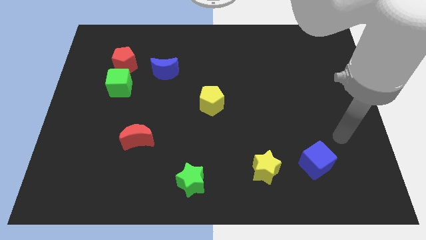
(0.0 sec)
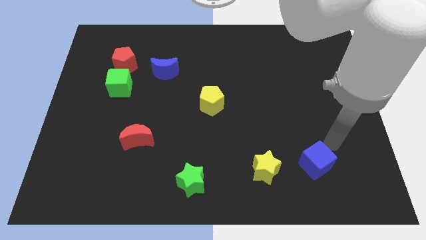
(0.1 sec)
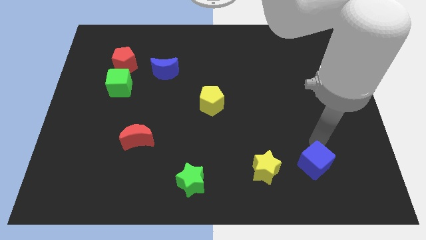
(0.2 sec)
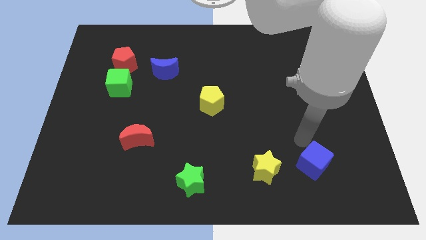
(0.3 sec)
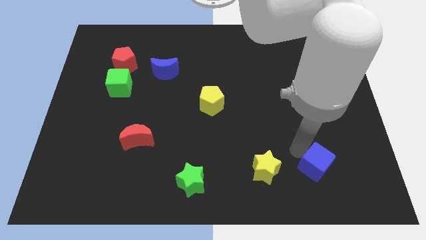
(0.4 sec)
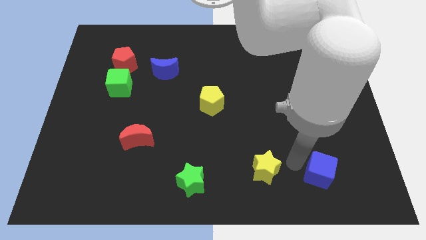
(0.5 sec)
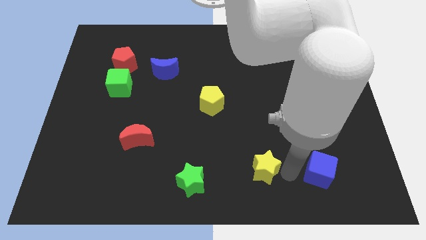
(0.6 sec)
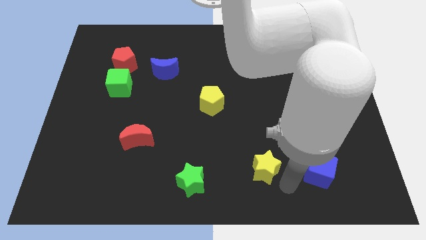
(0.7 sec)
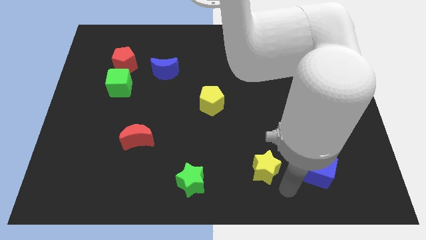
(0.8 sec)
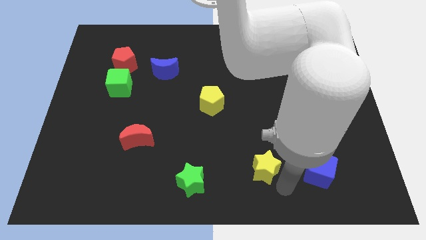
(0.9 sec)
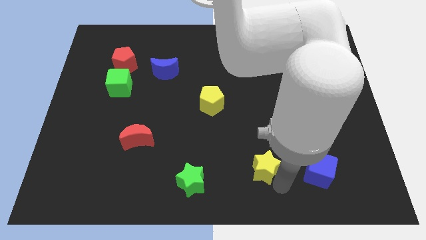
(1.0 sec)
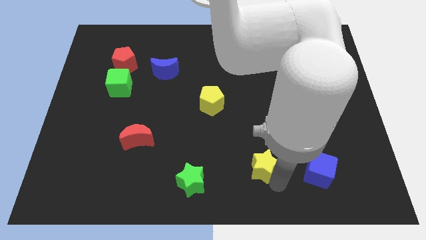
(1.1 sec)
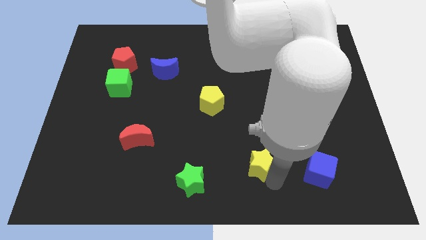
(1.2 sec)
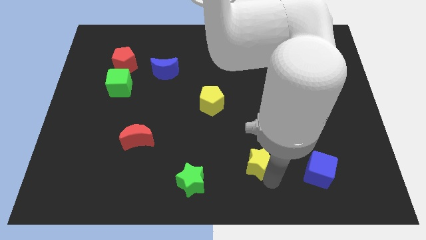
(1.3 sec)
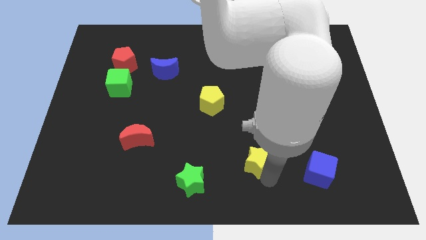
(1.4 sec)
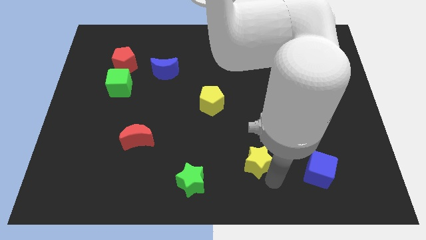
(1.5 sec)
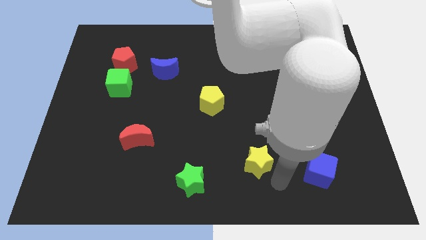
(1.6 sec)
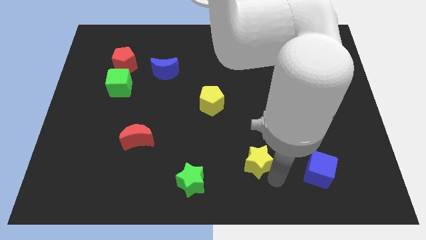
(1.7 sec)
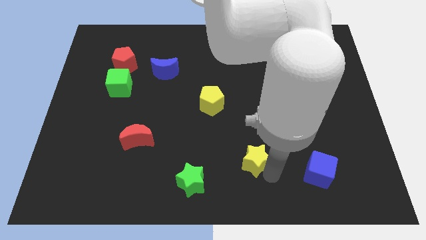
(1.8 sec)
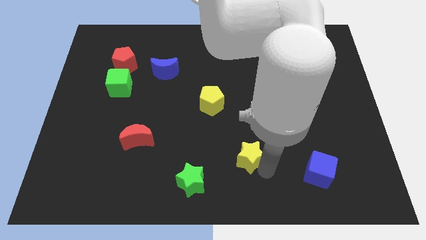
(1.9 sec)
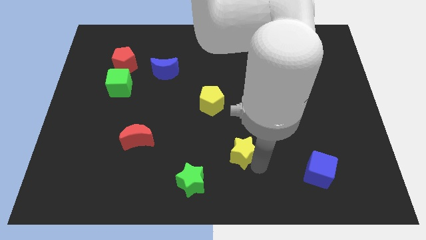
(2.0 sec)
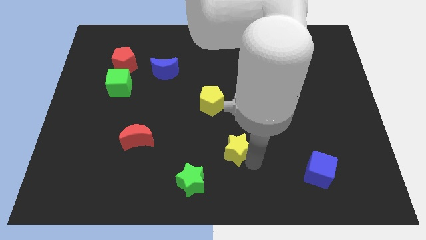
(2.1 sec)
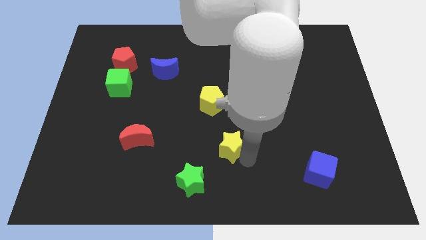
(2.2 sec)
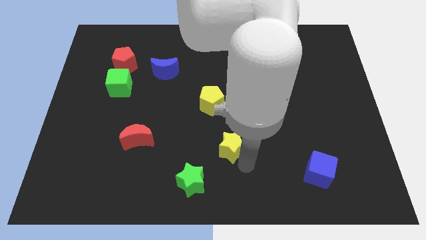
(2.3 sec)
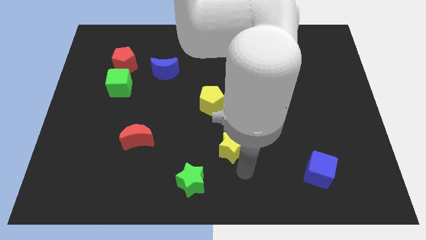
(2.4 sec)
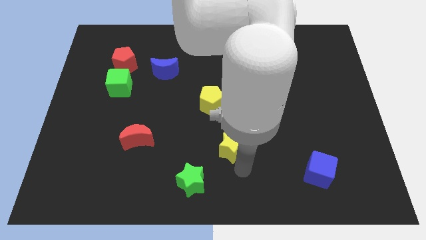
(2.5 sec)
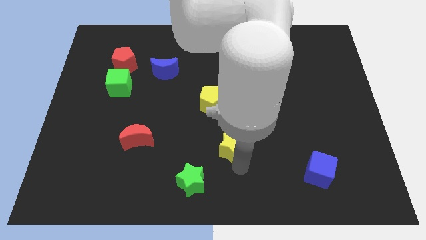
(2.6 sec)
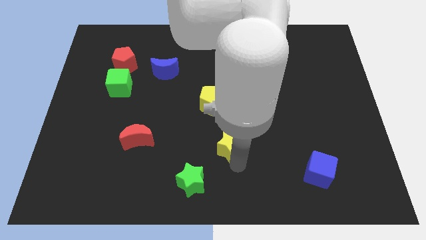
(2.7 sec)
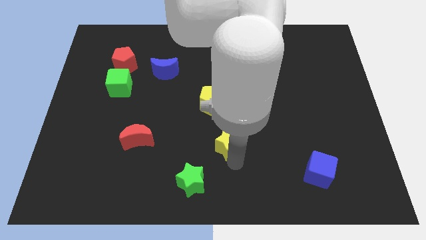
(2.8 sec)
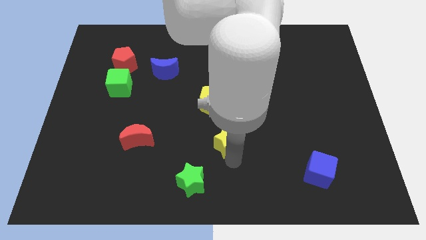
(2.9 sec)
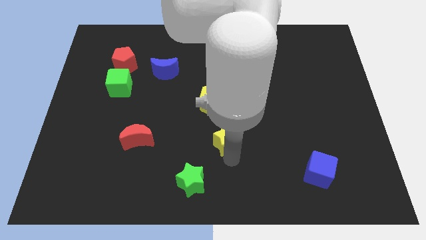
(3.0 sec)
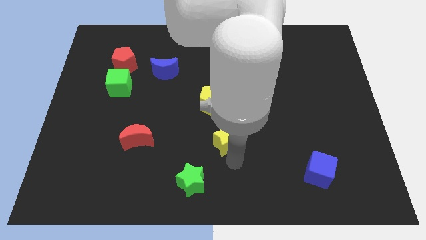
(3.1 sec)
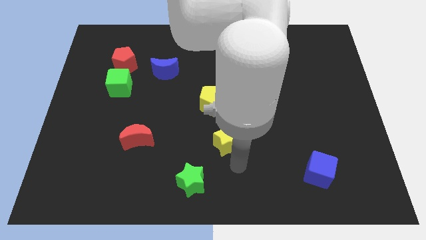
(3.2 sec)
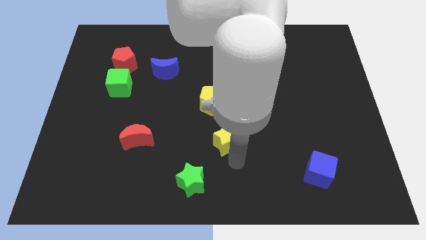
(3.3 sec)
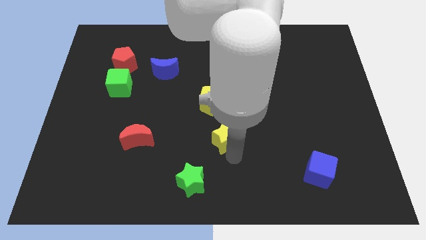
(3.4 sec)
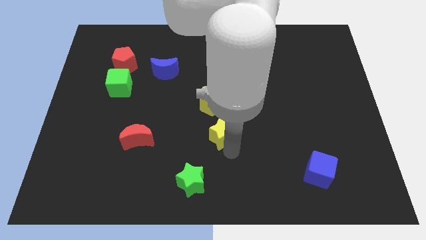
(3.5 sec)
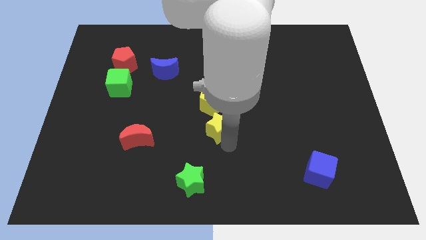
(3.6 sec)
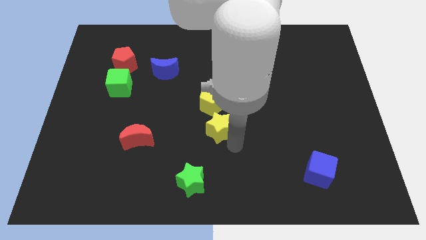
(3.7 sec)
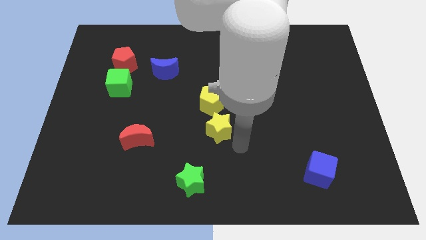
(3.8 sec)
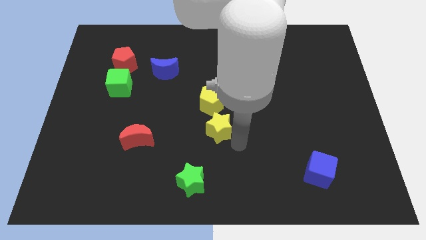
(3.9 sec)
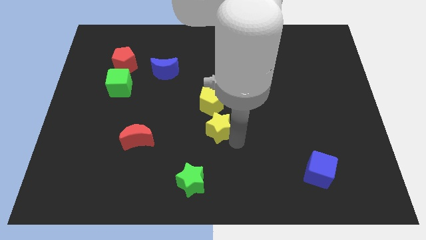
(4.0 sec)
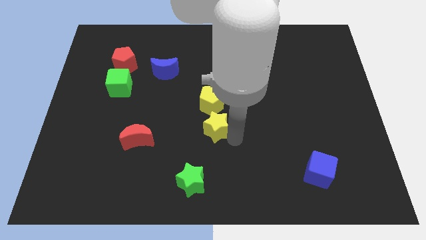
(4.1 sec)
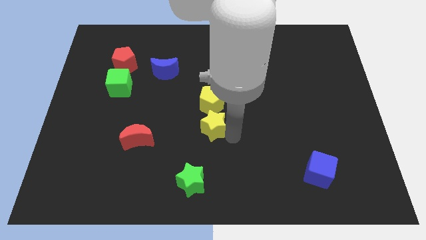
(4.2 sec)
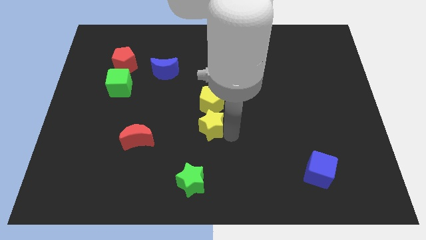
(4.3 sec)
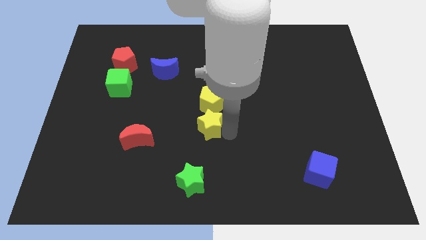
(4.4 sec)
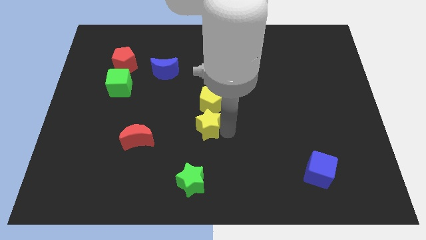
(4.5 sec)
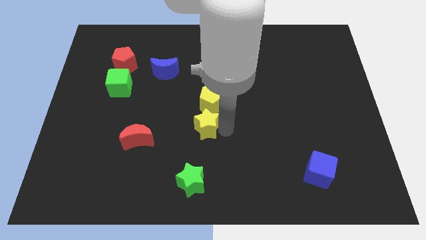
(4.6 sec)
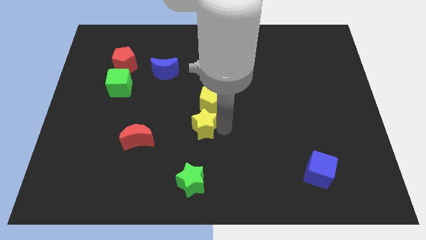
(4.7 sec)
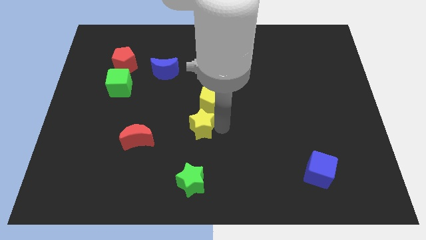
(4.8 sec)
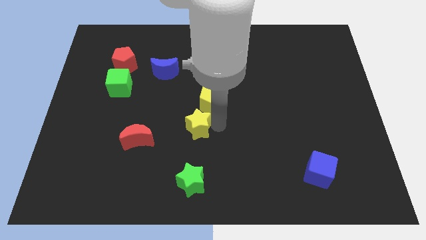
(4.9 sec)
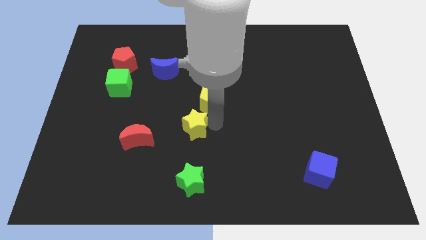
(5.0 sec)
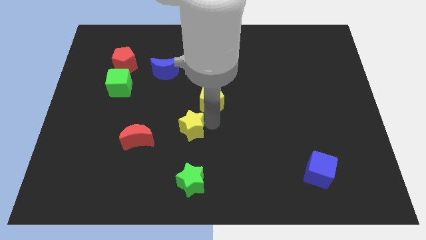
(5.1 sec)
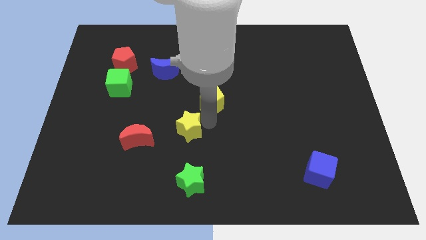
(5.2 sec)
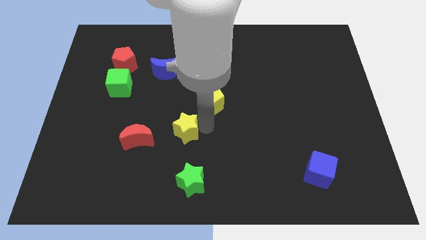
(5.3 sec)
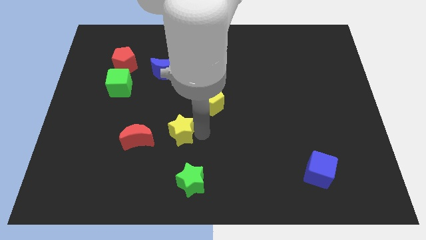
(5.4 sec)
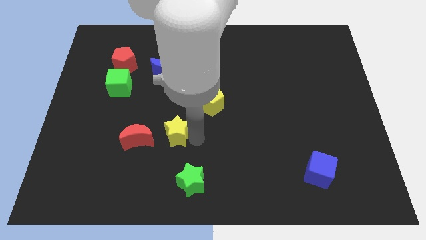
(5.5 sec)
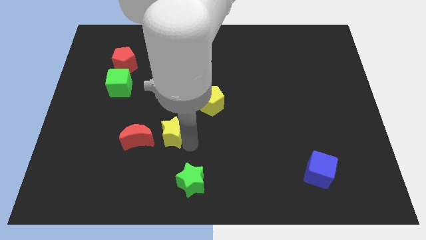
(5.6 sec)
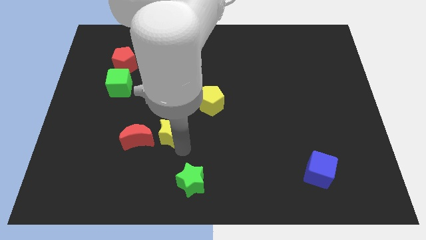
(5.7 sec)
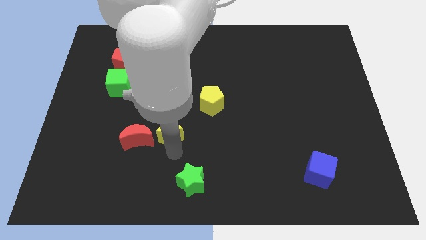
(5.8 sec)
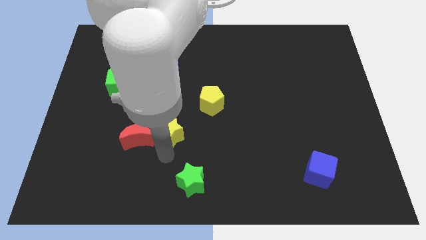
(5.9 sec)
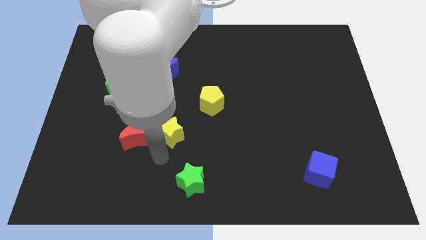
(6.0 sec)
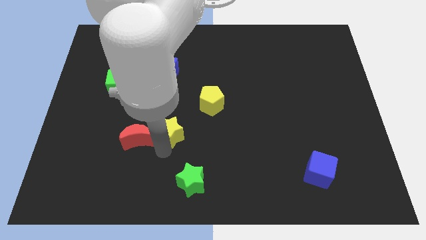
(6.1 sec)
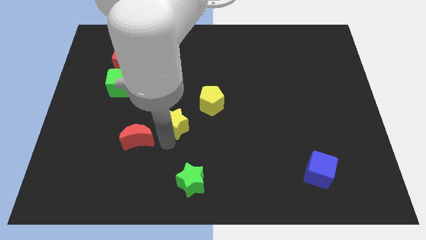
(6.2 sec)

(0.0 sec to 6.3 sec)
push the yellow star upwards and then left

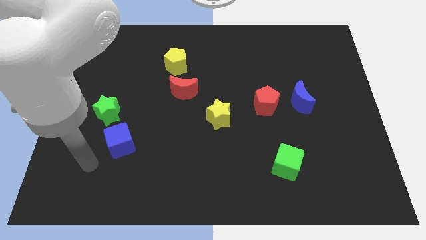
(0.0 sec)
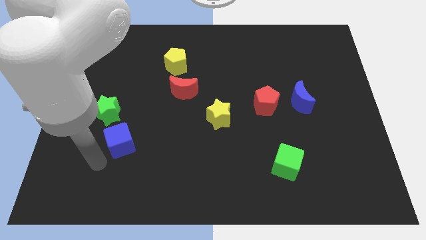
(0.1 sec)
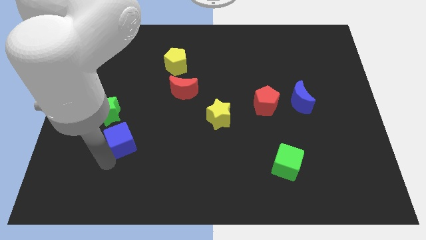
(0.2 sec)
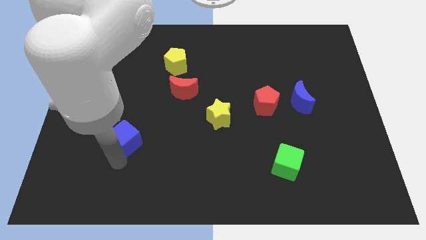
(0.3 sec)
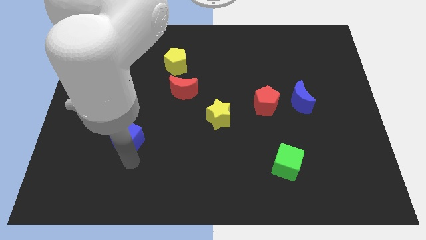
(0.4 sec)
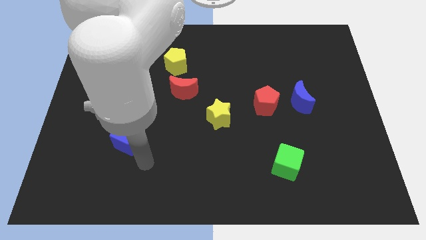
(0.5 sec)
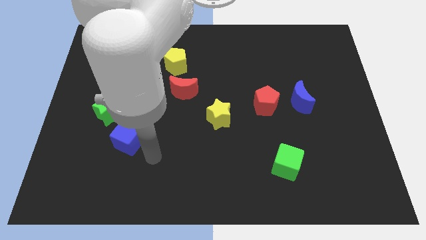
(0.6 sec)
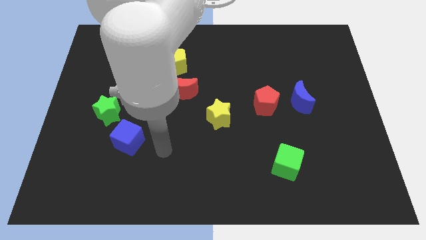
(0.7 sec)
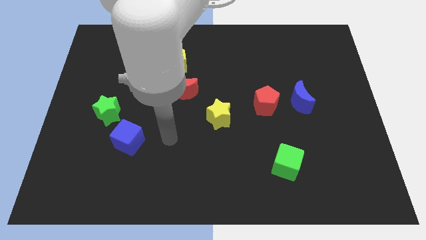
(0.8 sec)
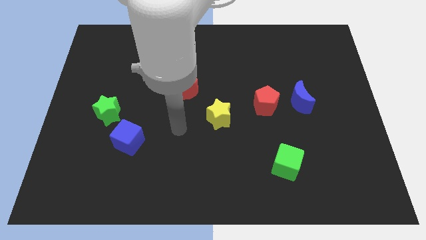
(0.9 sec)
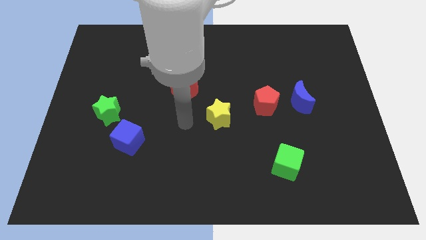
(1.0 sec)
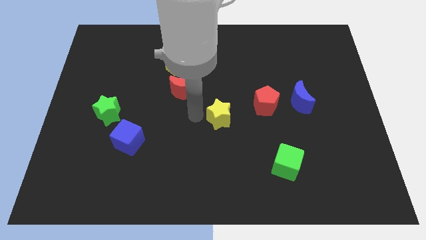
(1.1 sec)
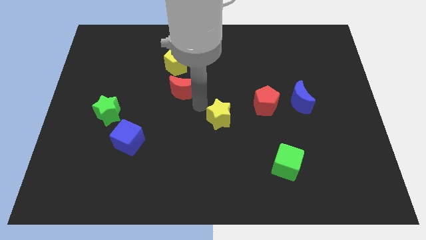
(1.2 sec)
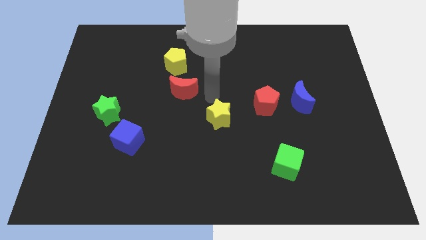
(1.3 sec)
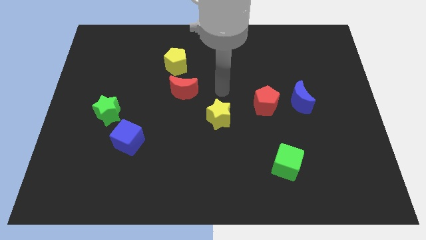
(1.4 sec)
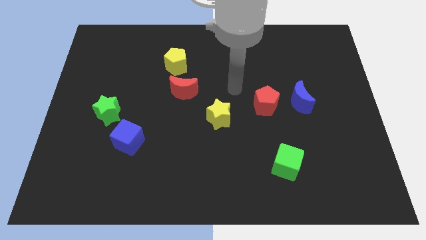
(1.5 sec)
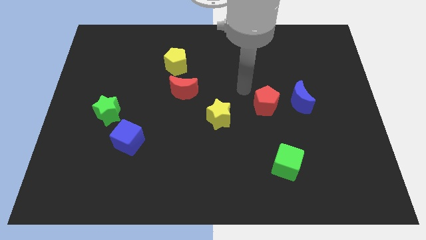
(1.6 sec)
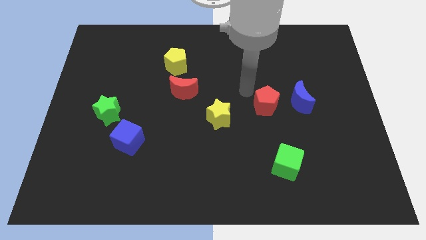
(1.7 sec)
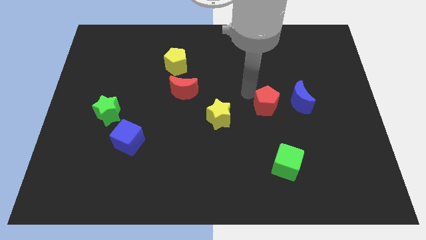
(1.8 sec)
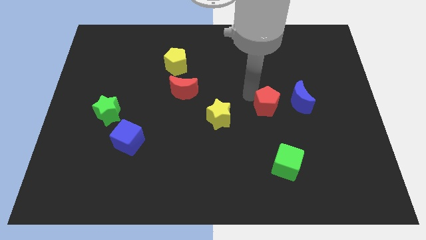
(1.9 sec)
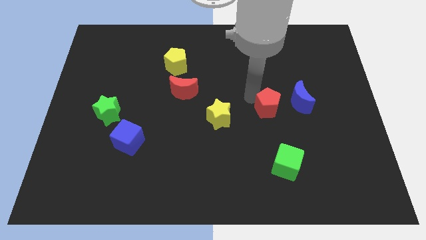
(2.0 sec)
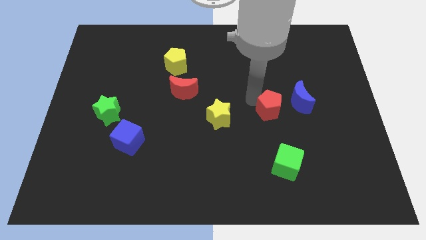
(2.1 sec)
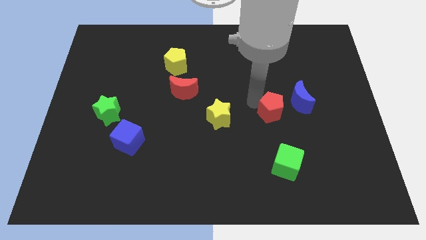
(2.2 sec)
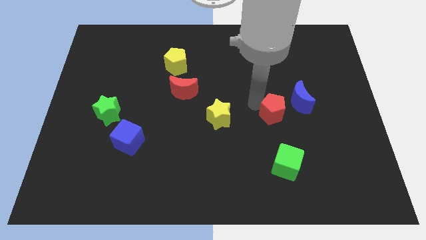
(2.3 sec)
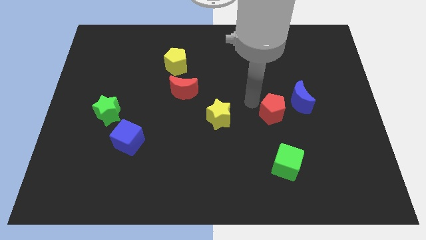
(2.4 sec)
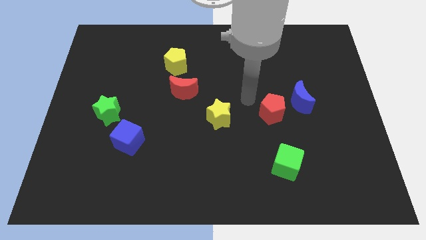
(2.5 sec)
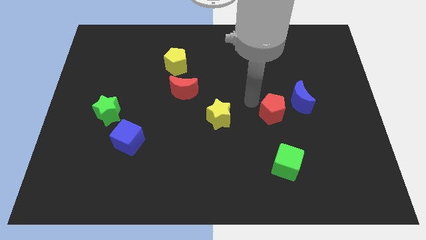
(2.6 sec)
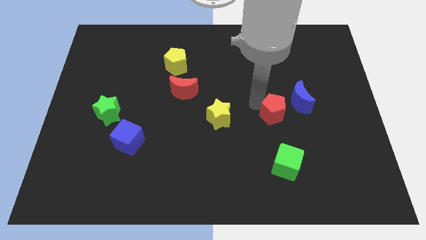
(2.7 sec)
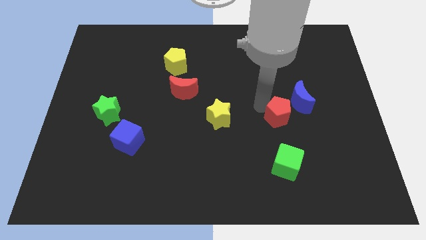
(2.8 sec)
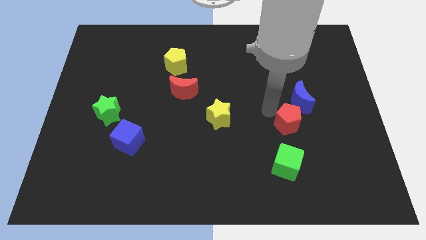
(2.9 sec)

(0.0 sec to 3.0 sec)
push the red pentagon a little down and then to the right
